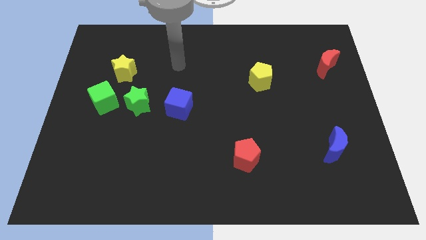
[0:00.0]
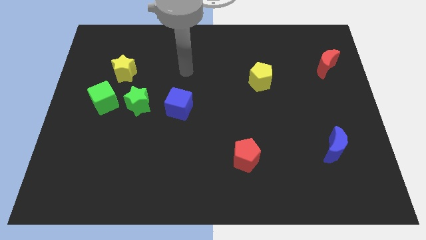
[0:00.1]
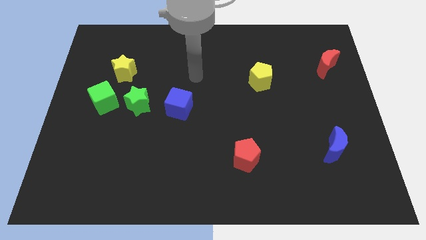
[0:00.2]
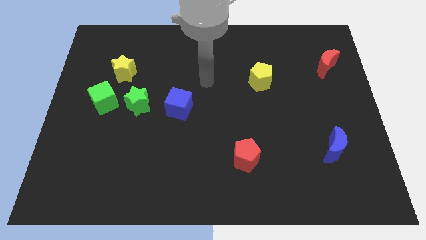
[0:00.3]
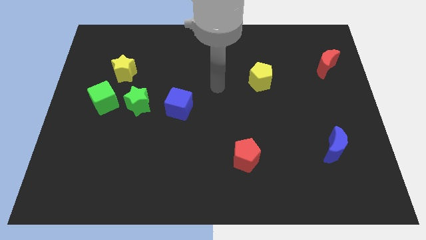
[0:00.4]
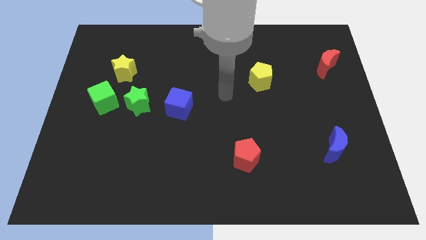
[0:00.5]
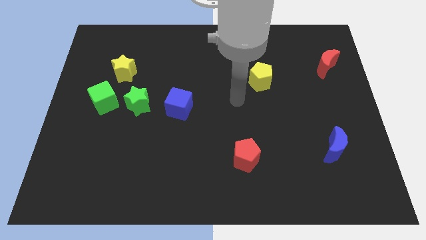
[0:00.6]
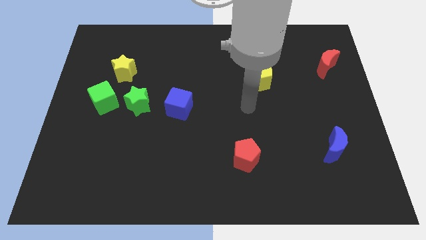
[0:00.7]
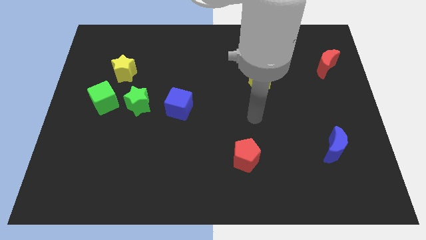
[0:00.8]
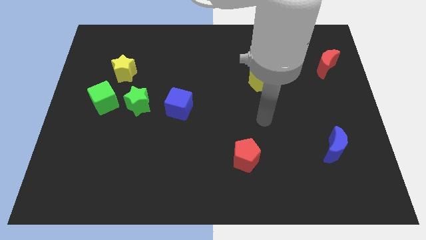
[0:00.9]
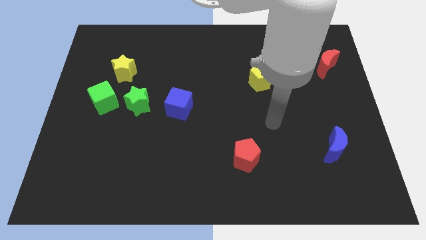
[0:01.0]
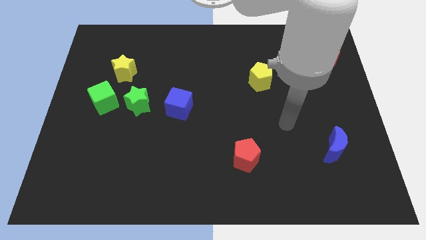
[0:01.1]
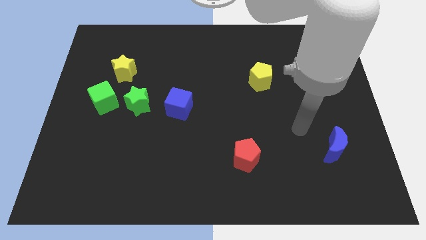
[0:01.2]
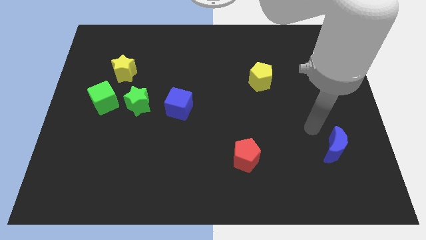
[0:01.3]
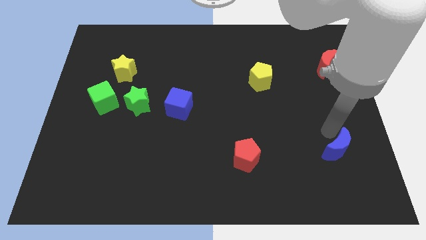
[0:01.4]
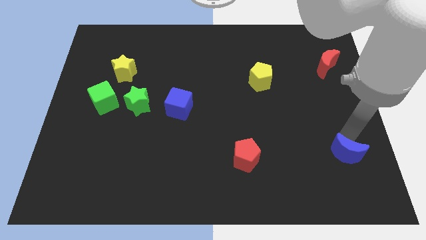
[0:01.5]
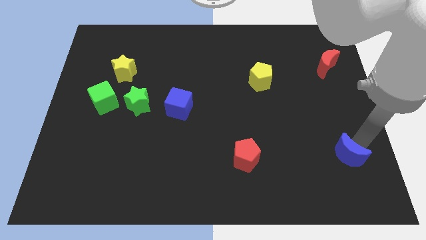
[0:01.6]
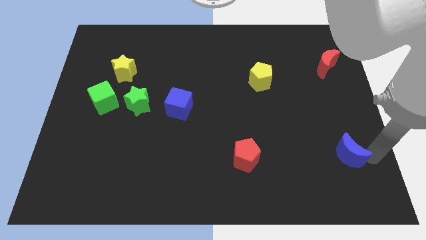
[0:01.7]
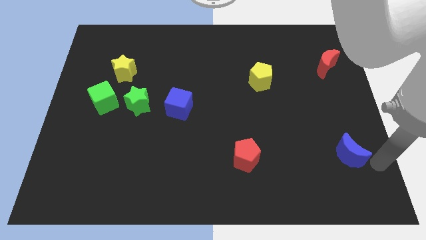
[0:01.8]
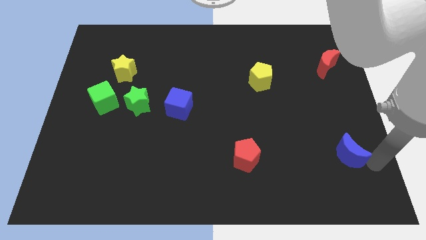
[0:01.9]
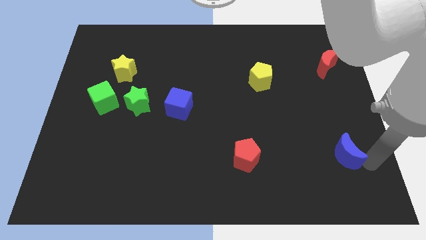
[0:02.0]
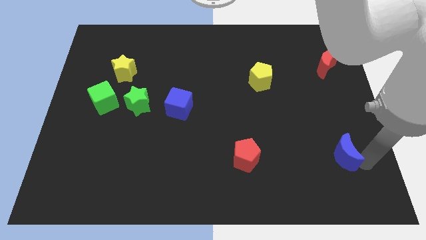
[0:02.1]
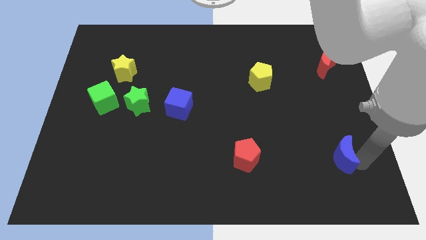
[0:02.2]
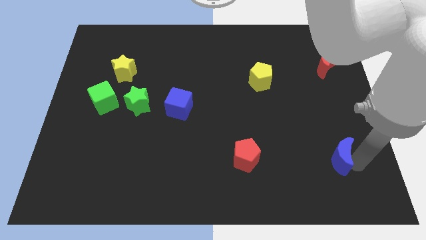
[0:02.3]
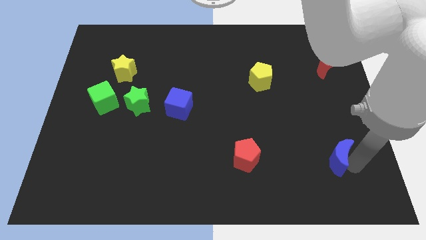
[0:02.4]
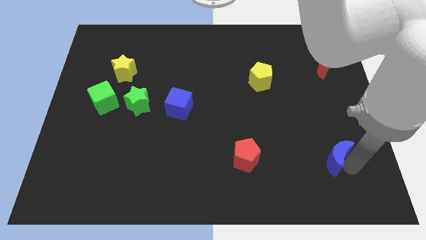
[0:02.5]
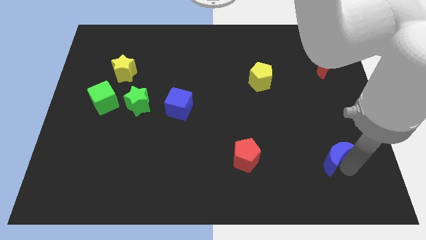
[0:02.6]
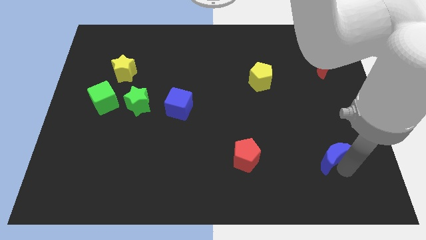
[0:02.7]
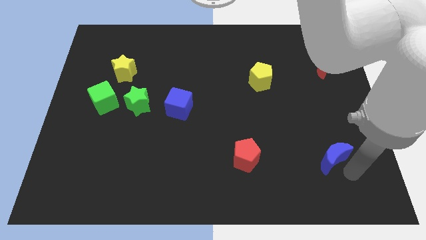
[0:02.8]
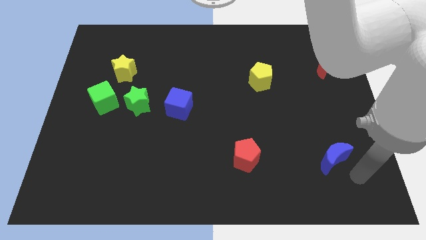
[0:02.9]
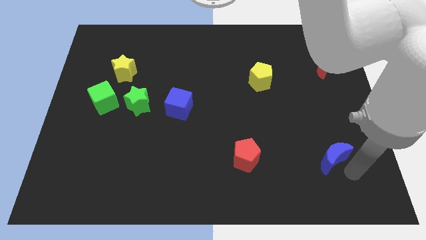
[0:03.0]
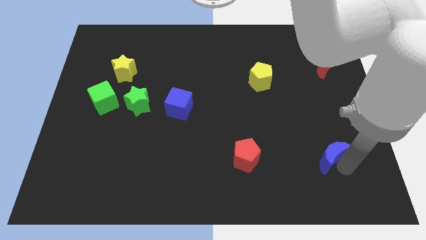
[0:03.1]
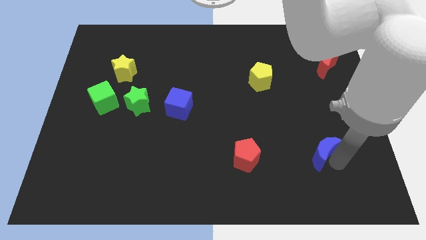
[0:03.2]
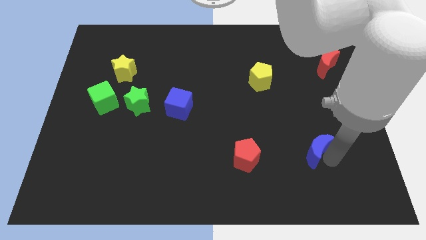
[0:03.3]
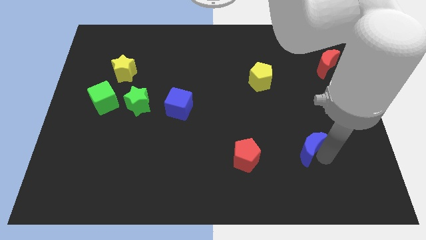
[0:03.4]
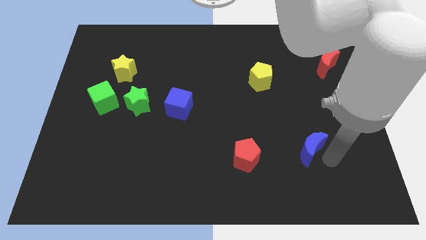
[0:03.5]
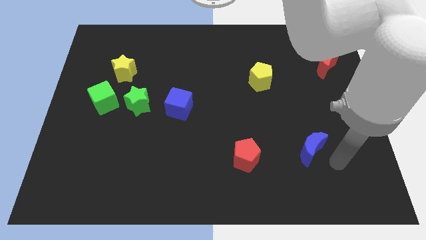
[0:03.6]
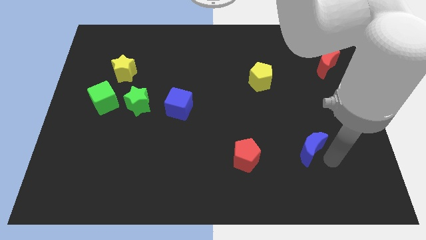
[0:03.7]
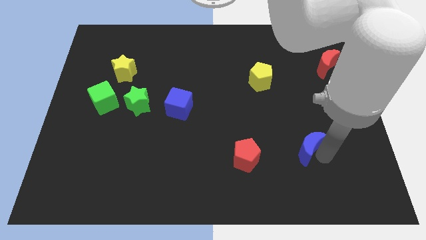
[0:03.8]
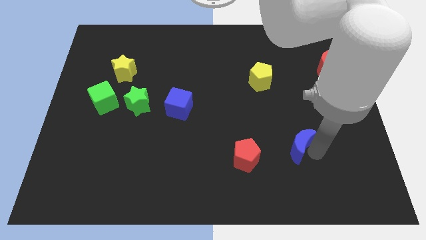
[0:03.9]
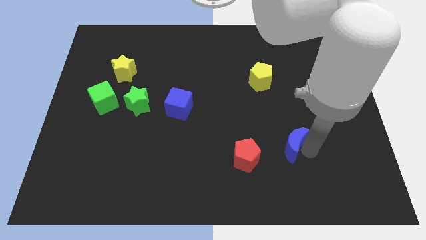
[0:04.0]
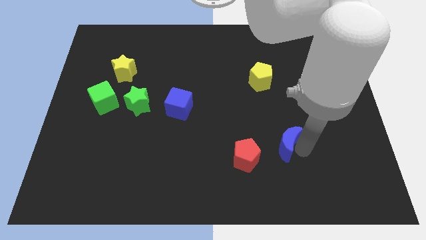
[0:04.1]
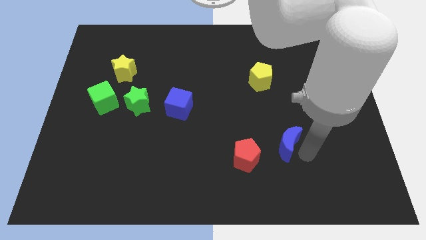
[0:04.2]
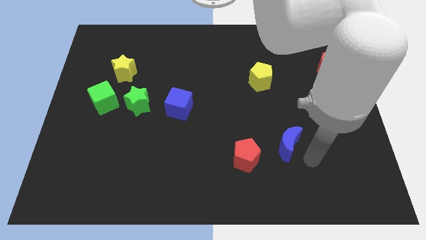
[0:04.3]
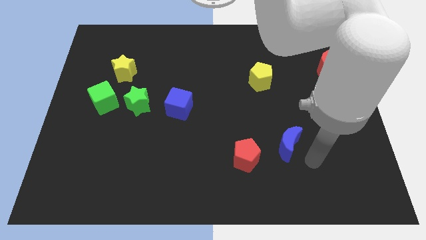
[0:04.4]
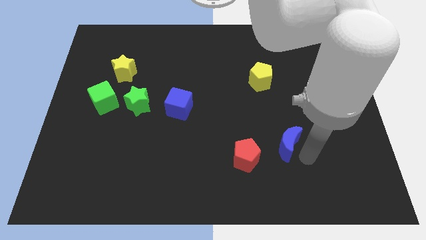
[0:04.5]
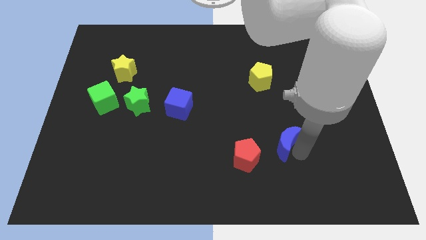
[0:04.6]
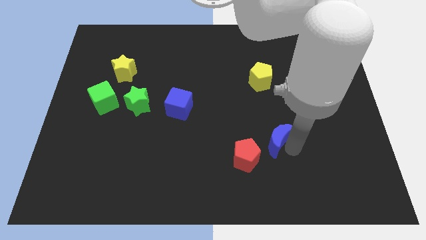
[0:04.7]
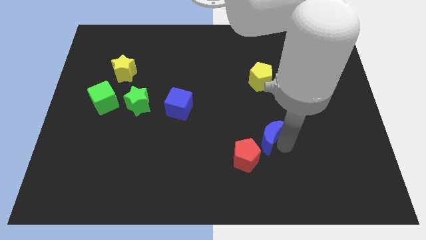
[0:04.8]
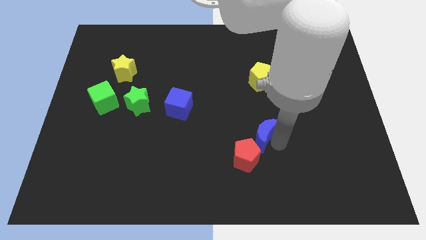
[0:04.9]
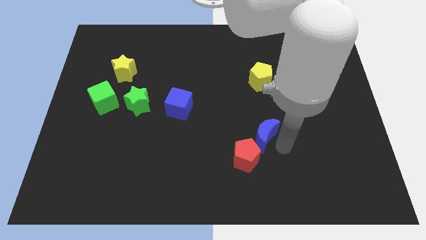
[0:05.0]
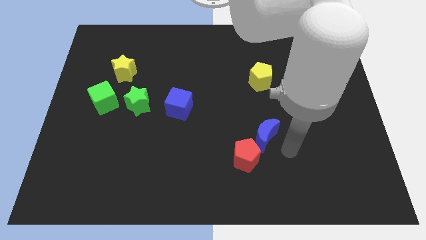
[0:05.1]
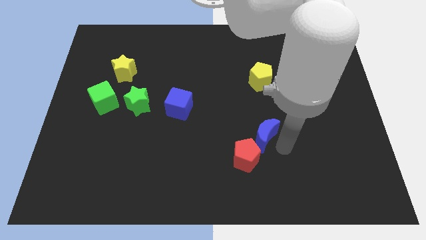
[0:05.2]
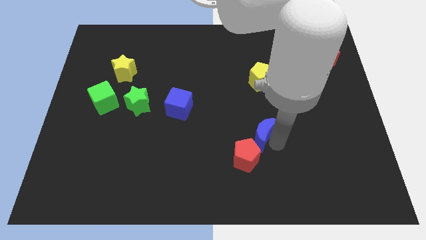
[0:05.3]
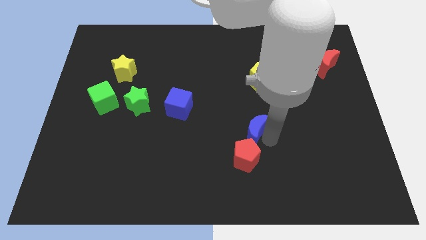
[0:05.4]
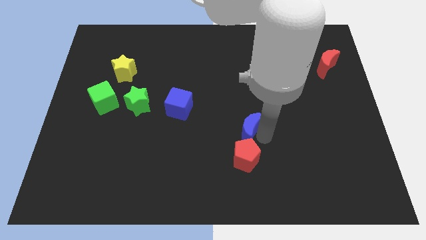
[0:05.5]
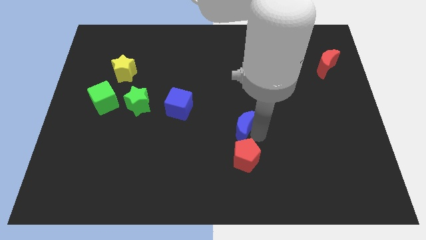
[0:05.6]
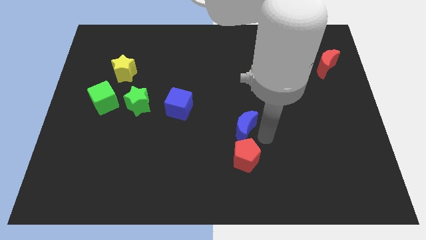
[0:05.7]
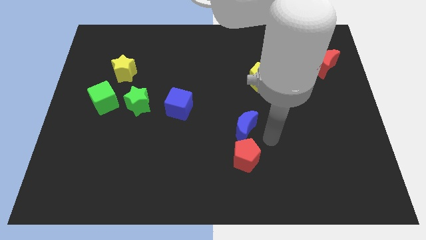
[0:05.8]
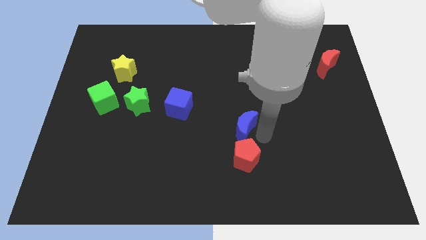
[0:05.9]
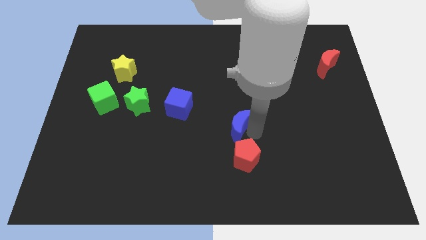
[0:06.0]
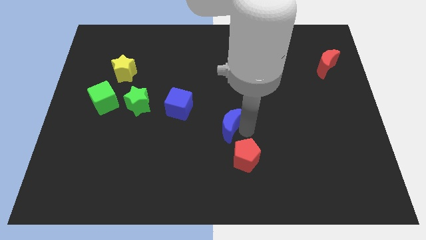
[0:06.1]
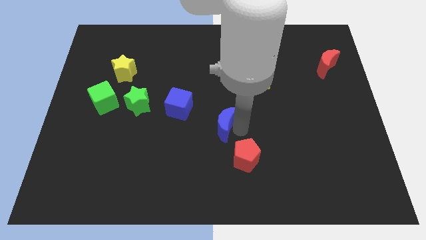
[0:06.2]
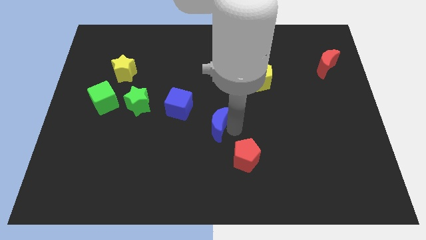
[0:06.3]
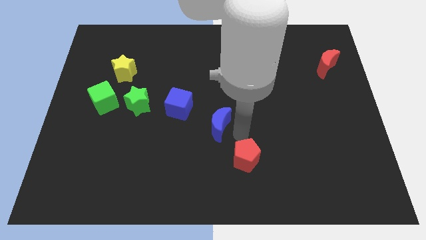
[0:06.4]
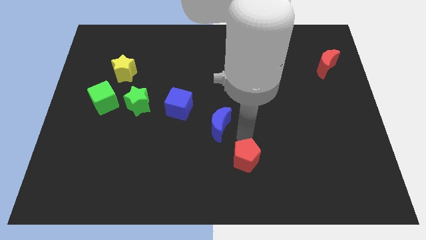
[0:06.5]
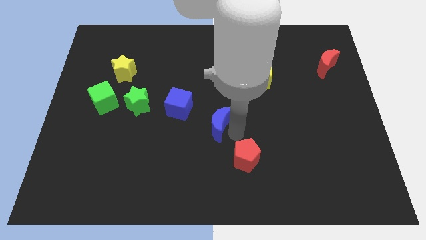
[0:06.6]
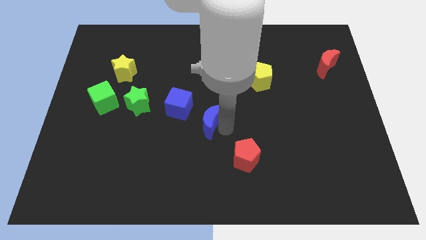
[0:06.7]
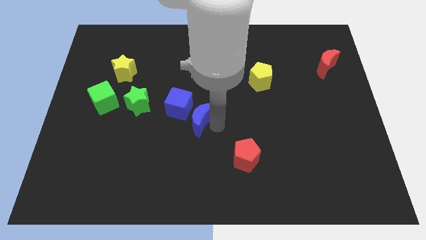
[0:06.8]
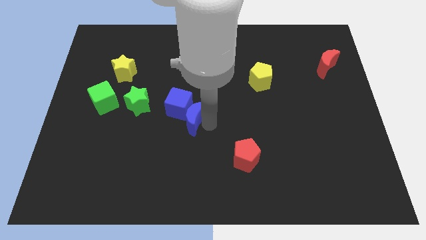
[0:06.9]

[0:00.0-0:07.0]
push the blue moon towards the blue cube

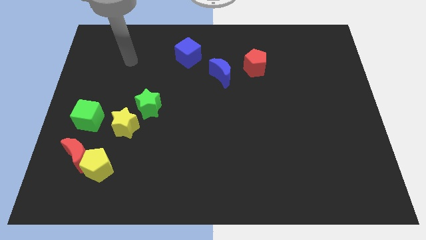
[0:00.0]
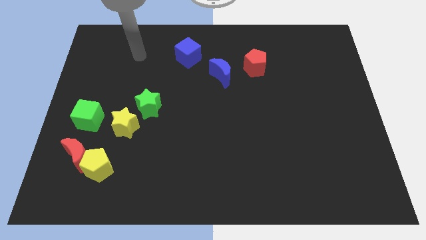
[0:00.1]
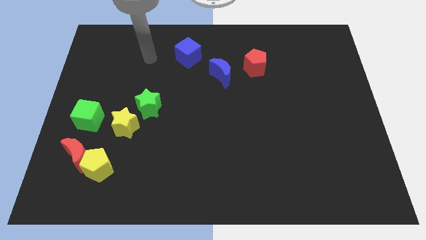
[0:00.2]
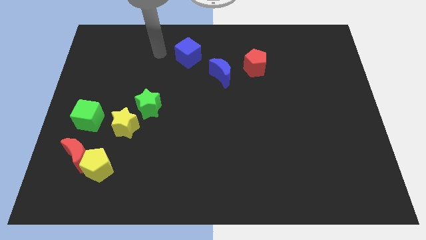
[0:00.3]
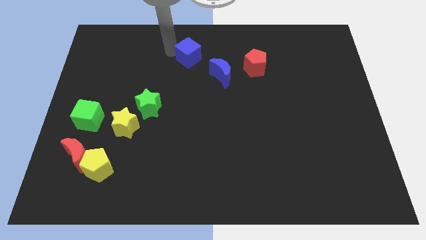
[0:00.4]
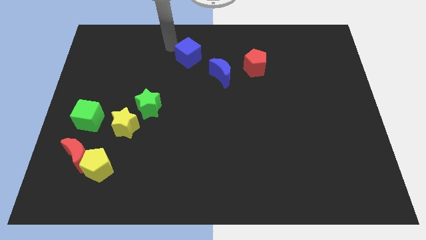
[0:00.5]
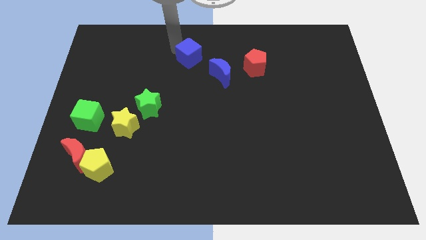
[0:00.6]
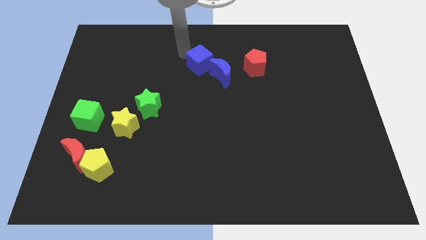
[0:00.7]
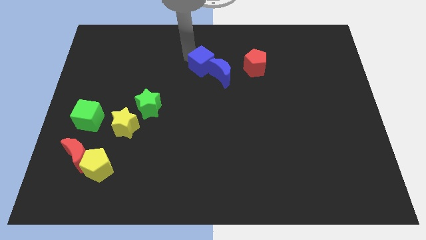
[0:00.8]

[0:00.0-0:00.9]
slide the blue cube next to the blue moon

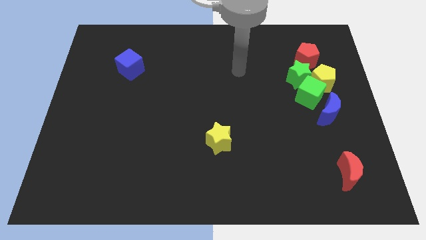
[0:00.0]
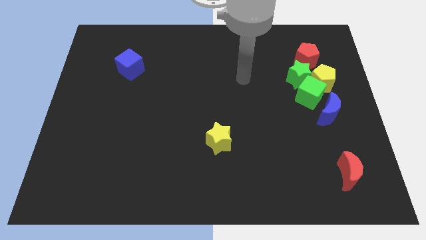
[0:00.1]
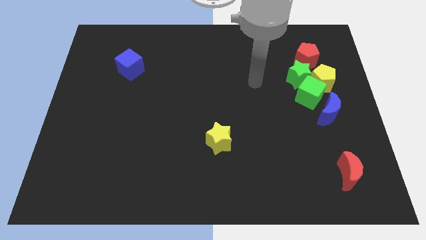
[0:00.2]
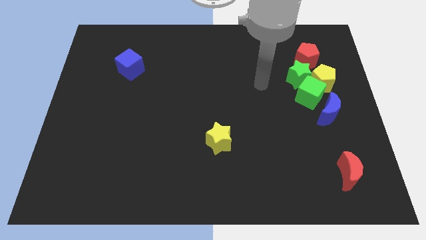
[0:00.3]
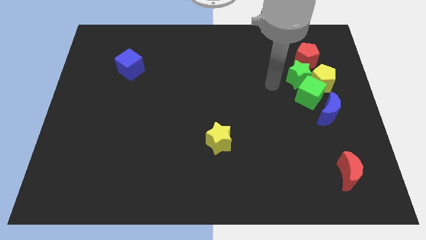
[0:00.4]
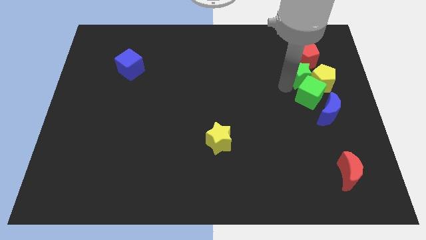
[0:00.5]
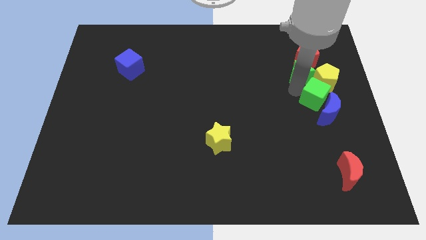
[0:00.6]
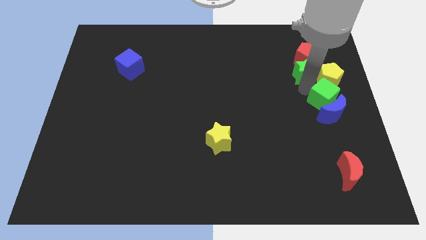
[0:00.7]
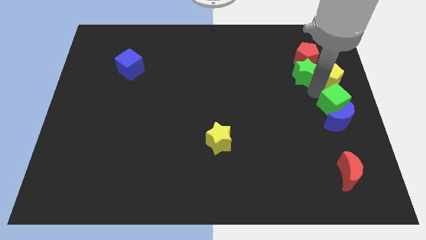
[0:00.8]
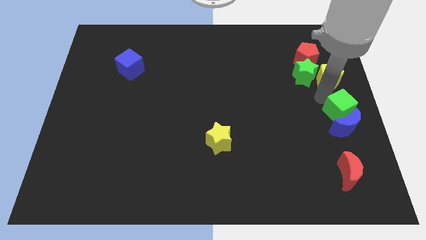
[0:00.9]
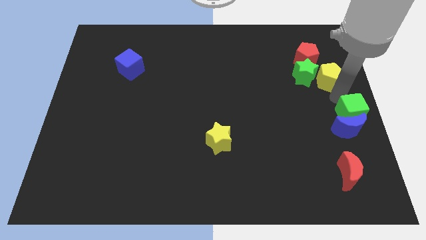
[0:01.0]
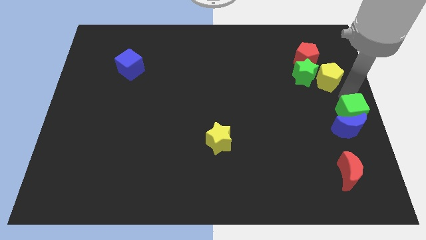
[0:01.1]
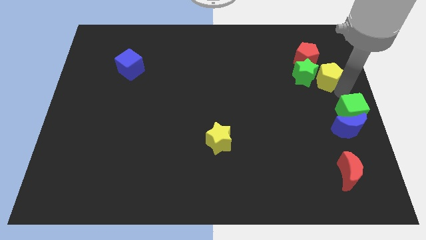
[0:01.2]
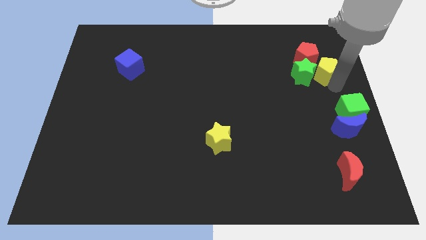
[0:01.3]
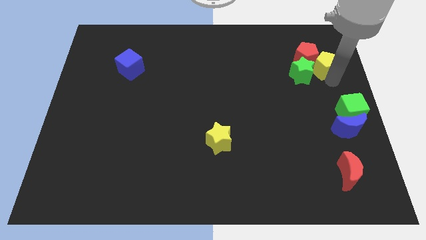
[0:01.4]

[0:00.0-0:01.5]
slide the yellow pentagon to the red pentagon
